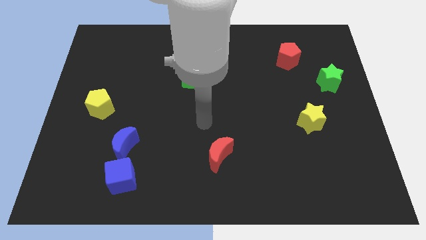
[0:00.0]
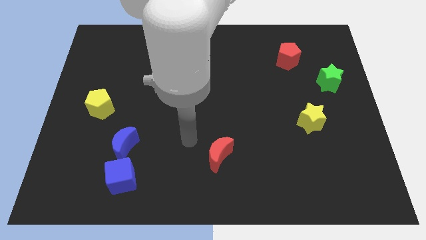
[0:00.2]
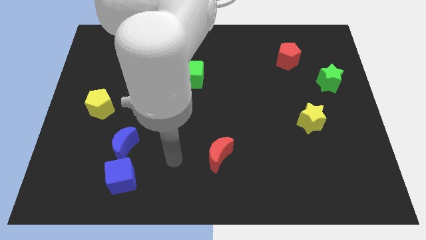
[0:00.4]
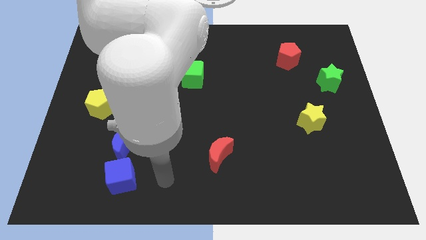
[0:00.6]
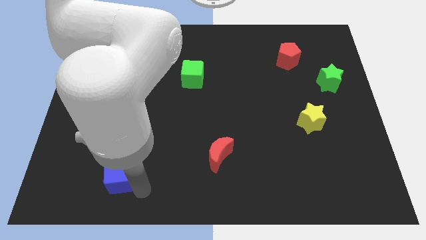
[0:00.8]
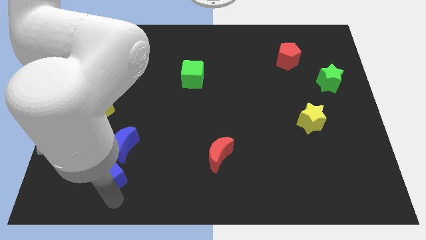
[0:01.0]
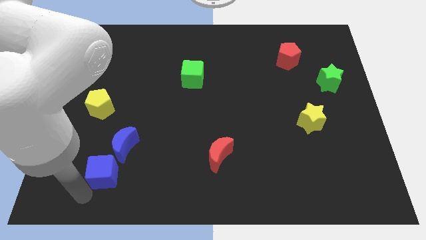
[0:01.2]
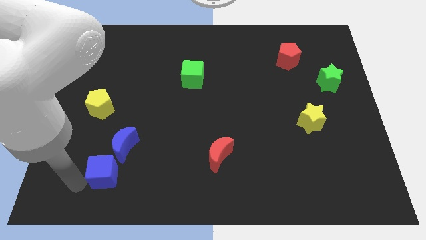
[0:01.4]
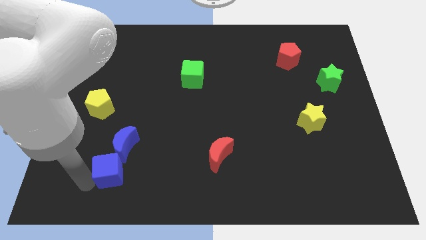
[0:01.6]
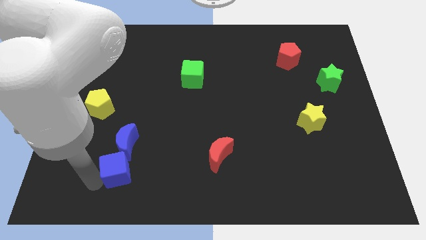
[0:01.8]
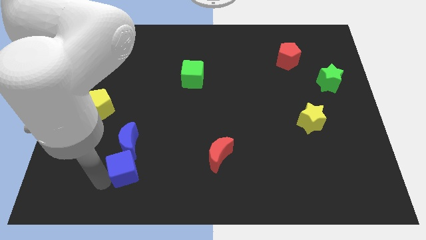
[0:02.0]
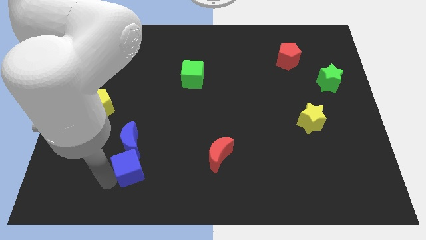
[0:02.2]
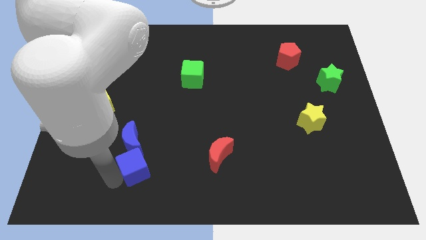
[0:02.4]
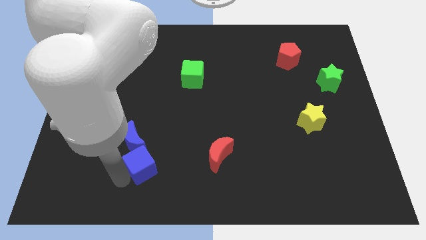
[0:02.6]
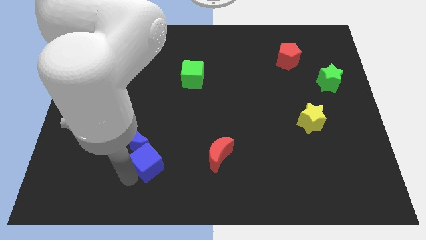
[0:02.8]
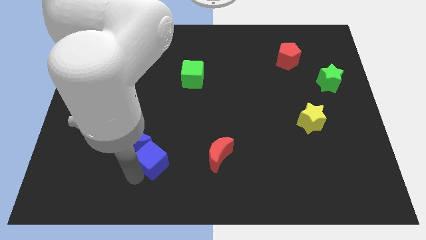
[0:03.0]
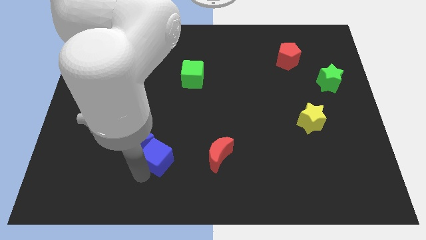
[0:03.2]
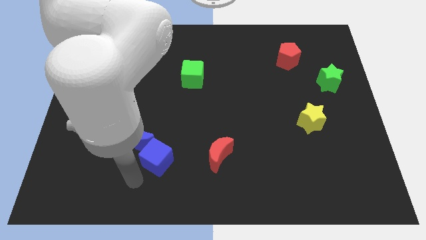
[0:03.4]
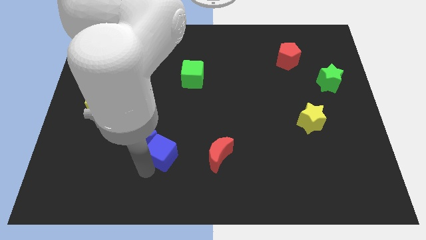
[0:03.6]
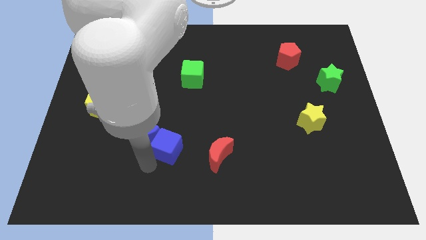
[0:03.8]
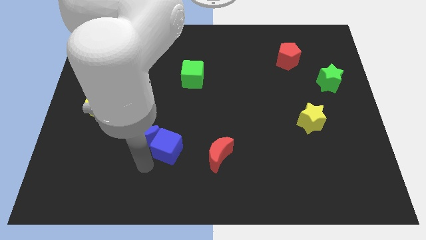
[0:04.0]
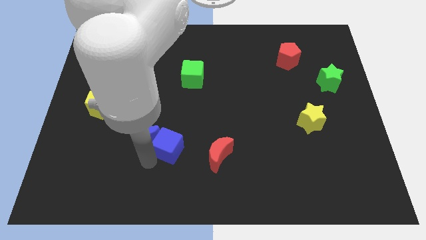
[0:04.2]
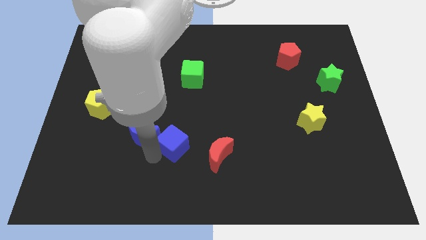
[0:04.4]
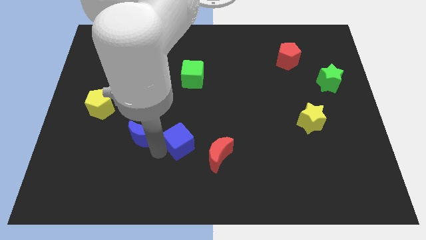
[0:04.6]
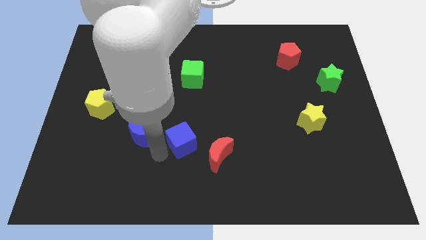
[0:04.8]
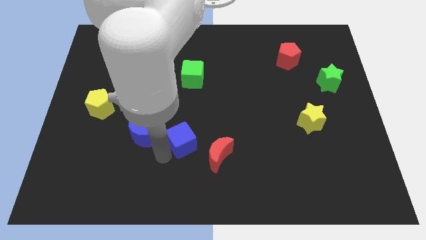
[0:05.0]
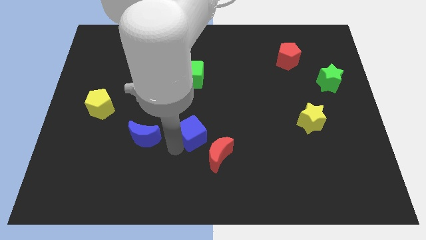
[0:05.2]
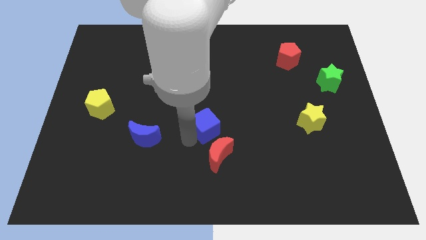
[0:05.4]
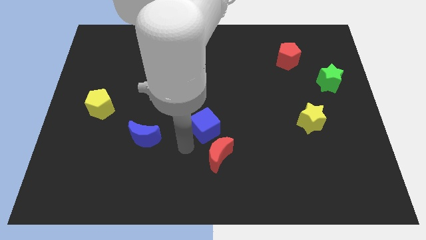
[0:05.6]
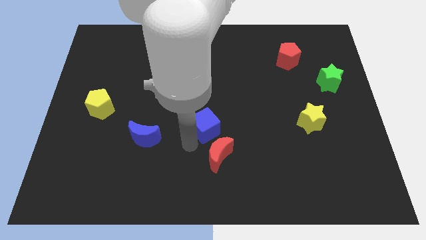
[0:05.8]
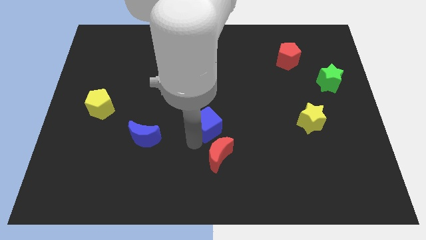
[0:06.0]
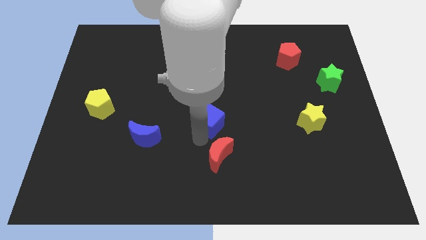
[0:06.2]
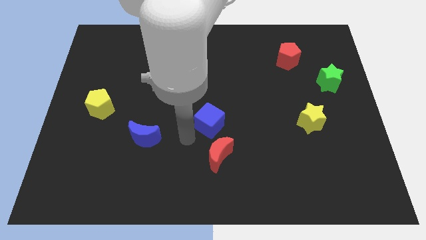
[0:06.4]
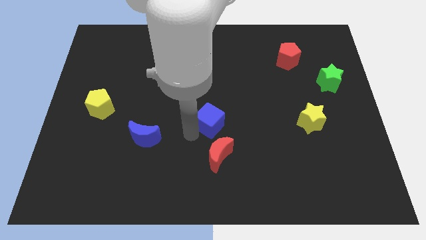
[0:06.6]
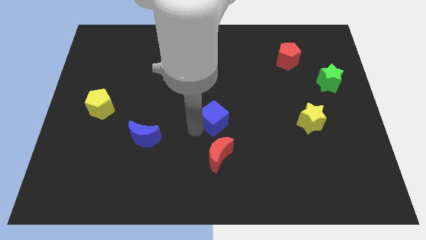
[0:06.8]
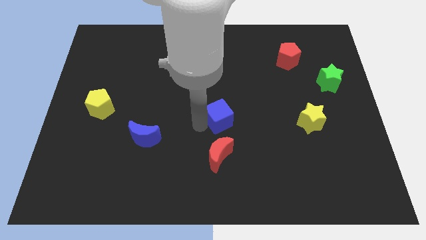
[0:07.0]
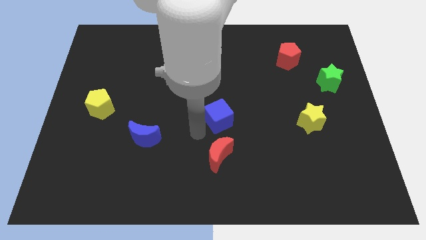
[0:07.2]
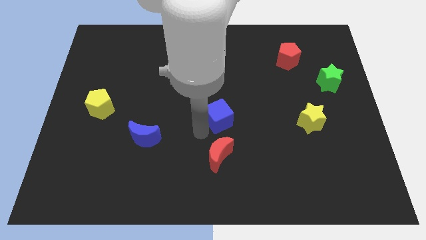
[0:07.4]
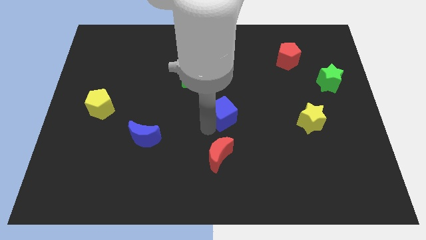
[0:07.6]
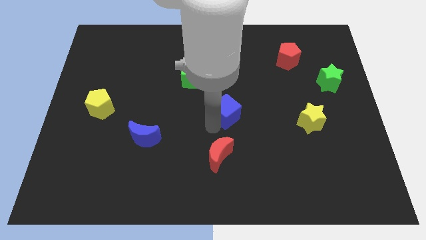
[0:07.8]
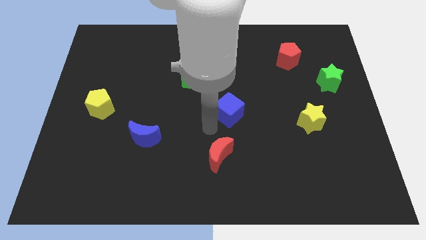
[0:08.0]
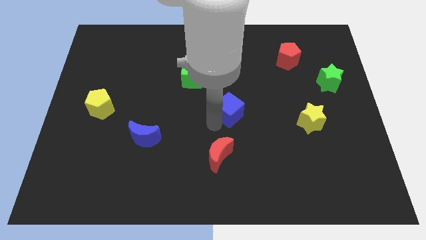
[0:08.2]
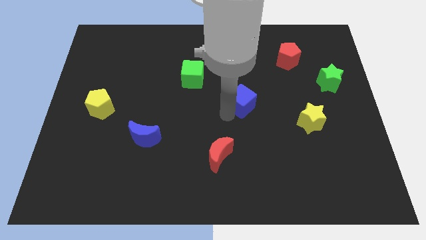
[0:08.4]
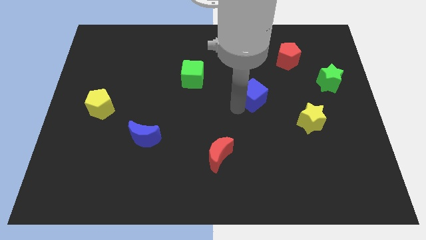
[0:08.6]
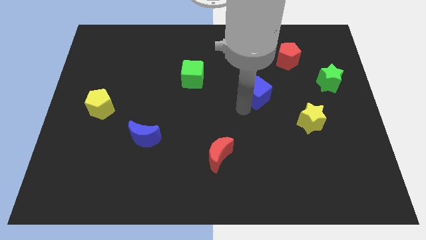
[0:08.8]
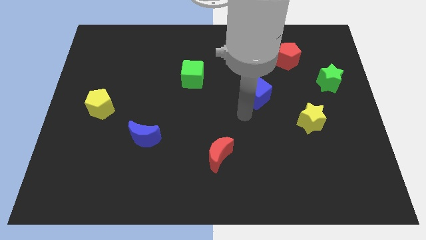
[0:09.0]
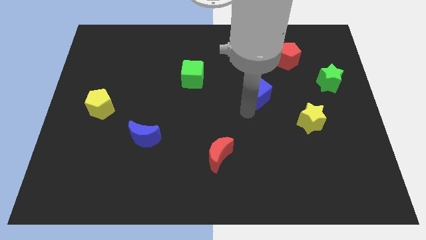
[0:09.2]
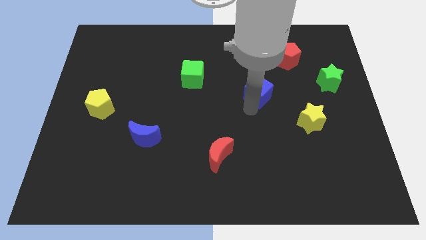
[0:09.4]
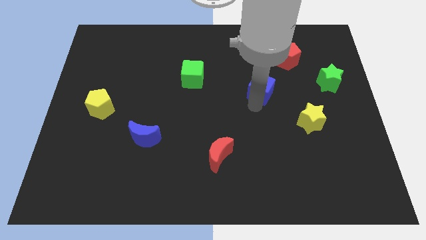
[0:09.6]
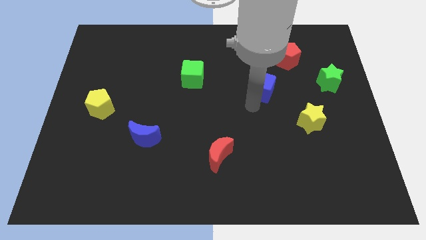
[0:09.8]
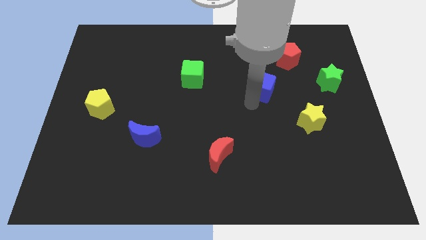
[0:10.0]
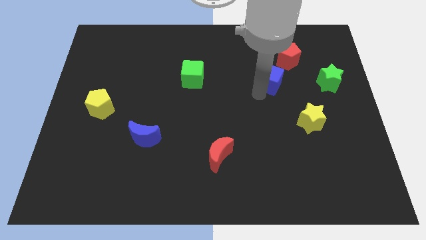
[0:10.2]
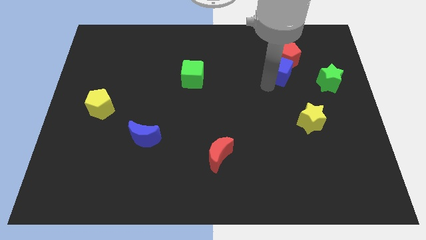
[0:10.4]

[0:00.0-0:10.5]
push the blue cube close to the red pentagon

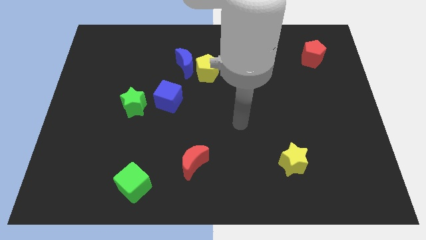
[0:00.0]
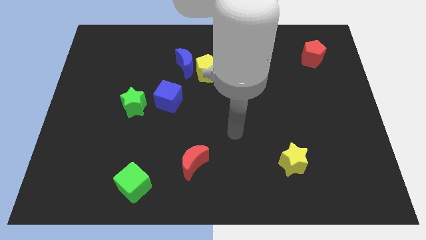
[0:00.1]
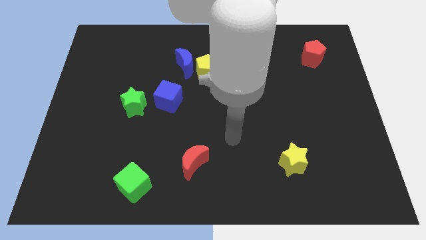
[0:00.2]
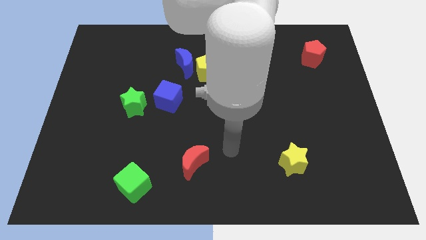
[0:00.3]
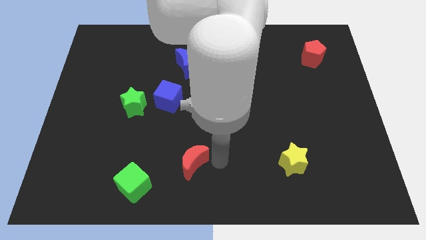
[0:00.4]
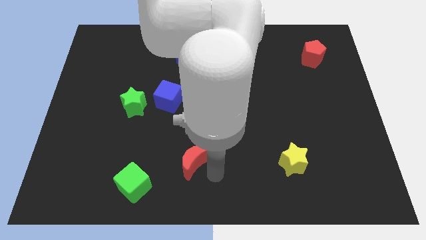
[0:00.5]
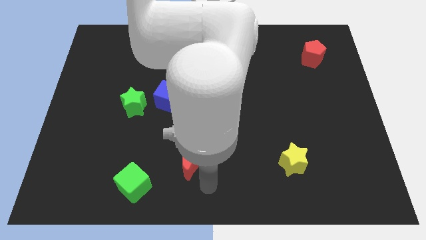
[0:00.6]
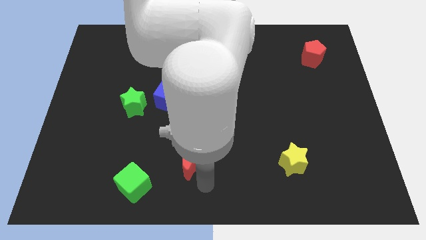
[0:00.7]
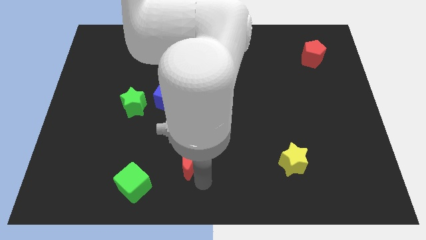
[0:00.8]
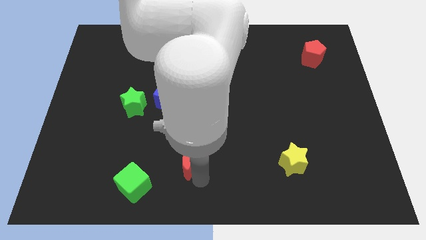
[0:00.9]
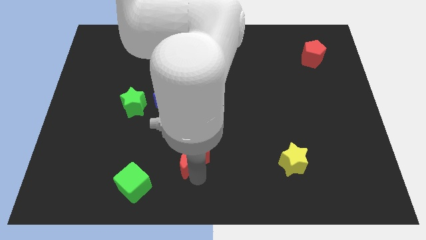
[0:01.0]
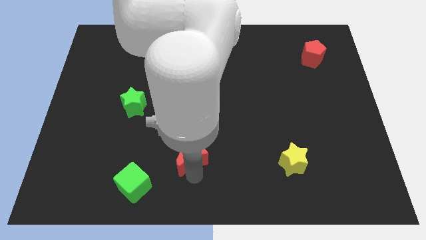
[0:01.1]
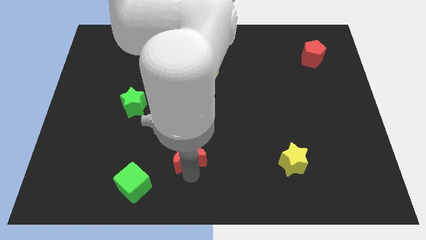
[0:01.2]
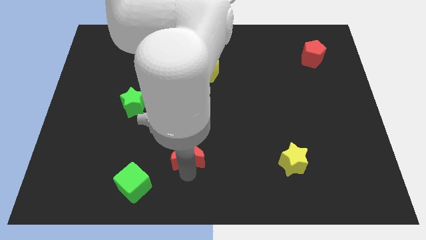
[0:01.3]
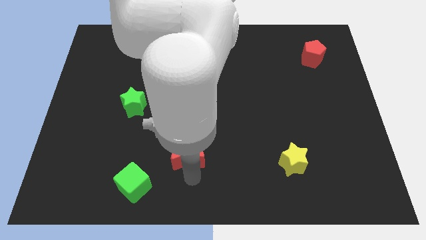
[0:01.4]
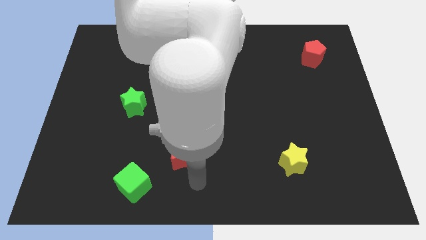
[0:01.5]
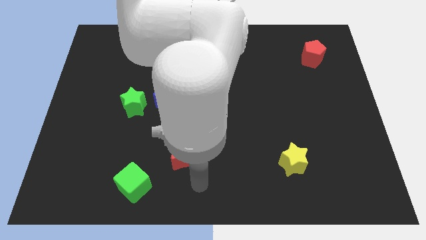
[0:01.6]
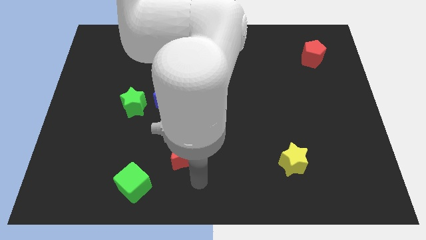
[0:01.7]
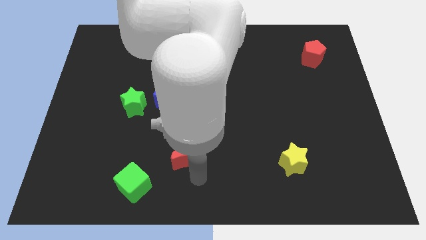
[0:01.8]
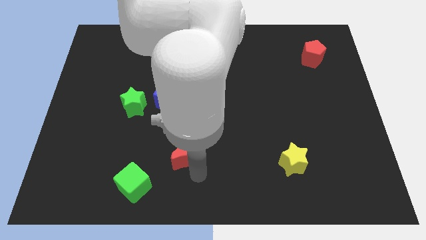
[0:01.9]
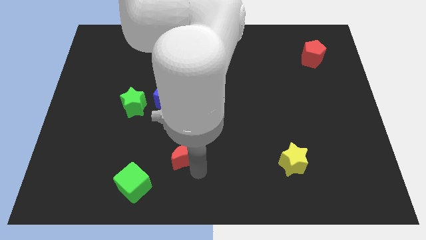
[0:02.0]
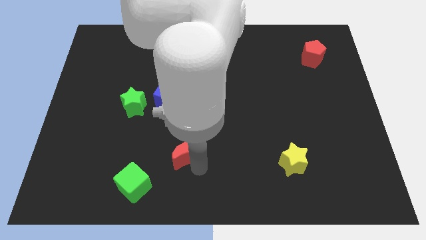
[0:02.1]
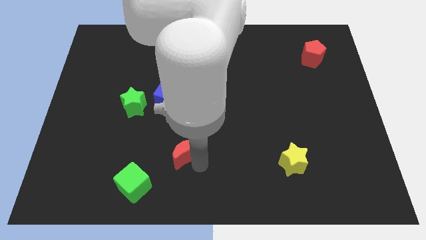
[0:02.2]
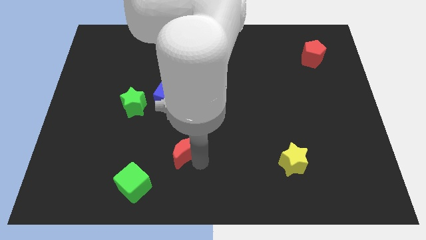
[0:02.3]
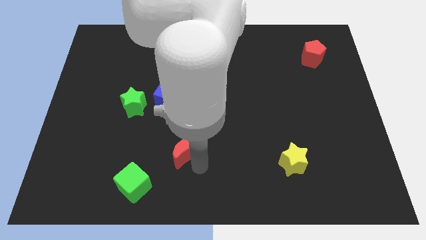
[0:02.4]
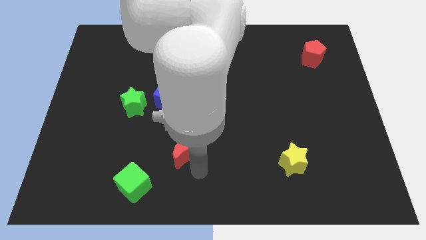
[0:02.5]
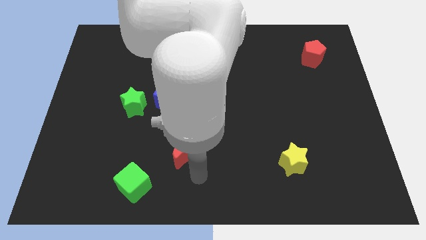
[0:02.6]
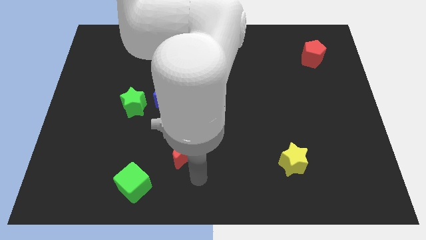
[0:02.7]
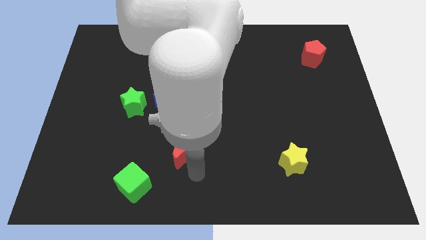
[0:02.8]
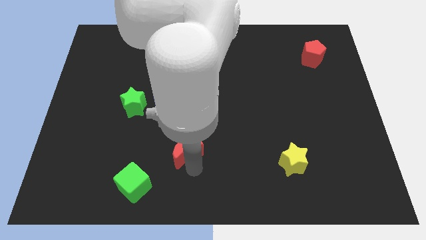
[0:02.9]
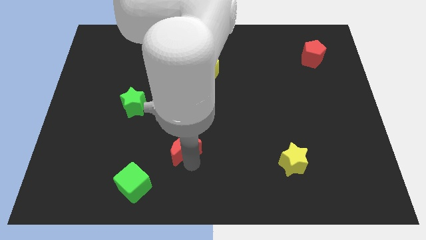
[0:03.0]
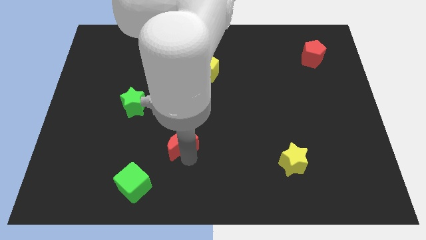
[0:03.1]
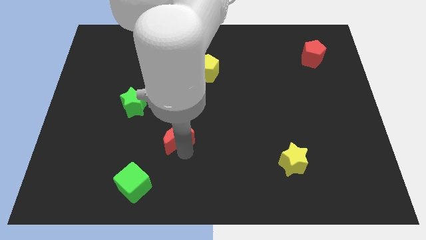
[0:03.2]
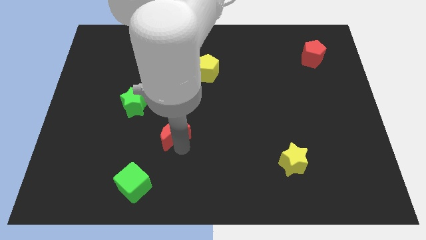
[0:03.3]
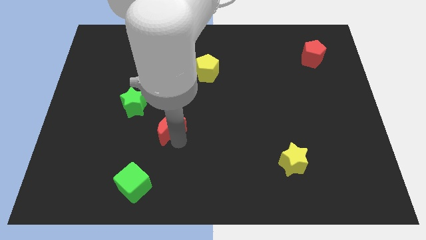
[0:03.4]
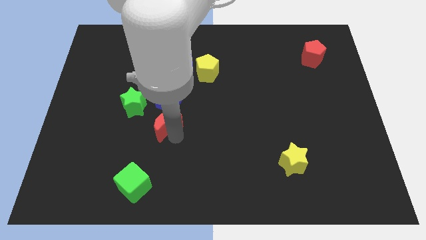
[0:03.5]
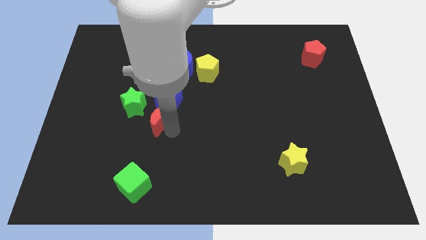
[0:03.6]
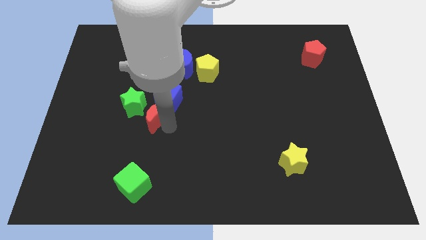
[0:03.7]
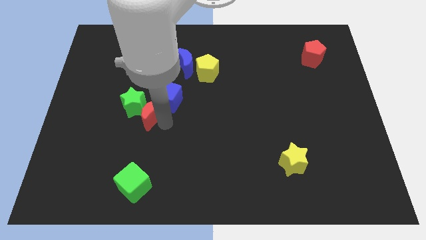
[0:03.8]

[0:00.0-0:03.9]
push the red moon to the green star
